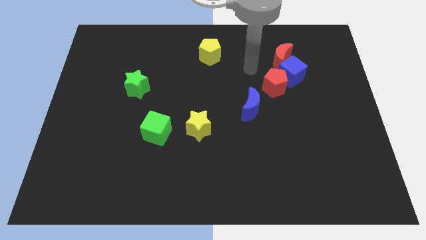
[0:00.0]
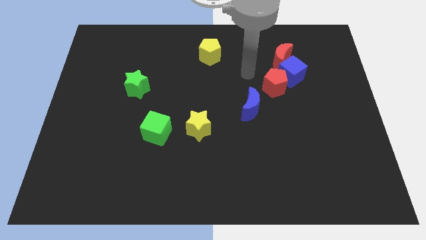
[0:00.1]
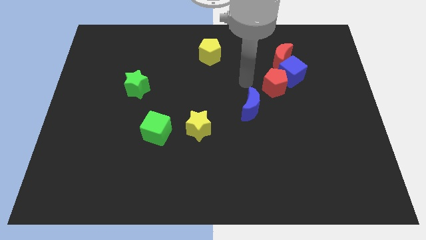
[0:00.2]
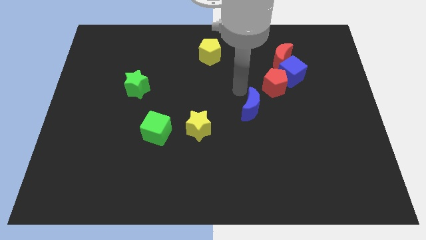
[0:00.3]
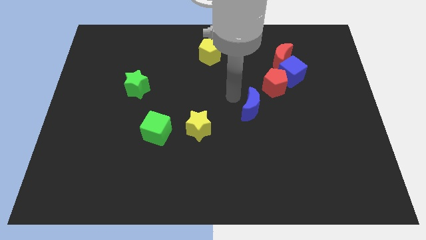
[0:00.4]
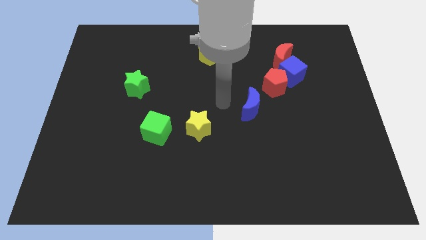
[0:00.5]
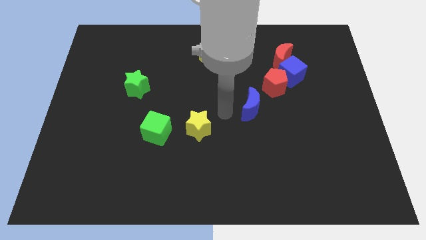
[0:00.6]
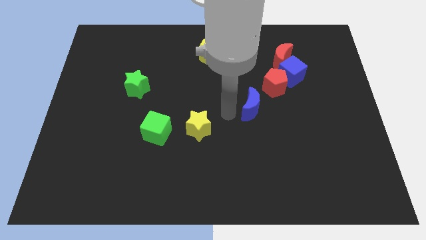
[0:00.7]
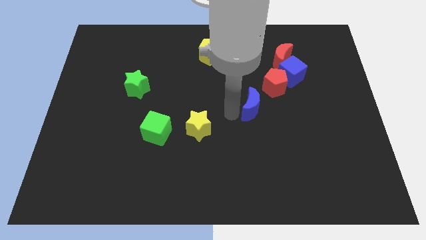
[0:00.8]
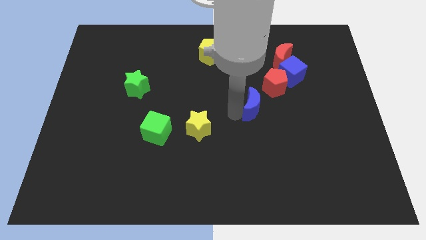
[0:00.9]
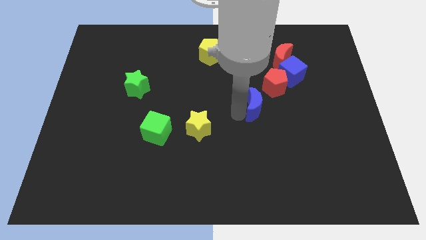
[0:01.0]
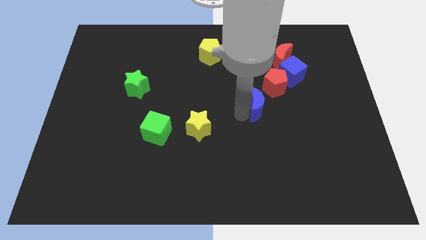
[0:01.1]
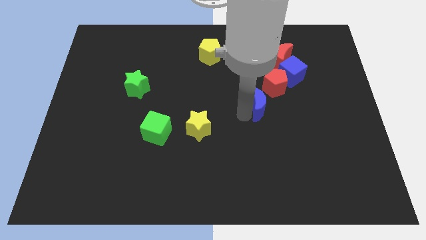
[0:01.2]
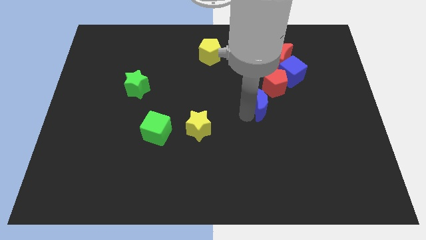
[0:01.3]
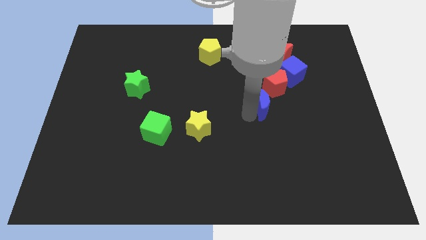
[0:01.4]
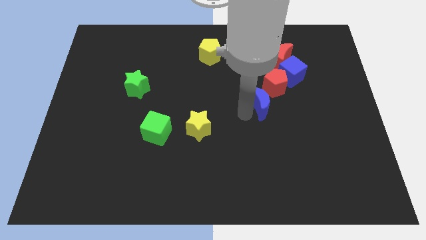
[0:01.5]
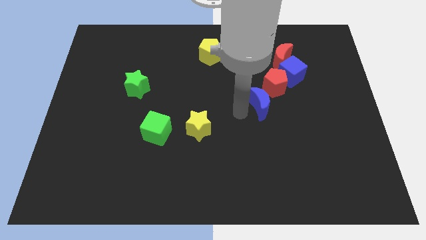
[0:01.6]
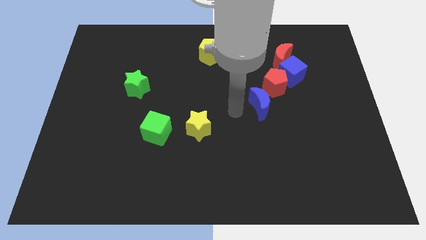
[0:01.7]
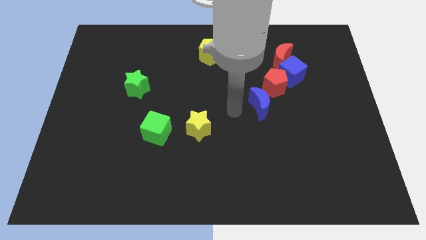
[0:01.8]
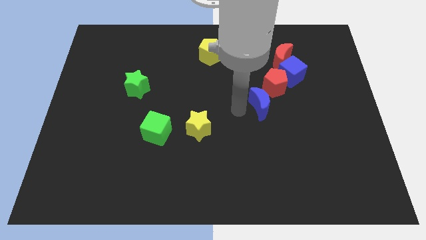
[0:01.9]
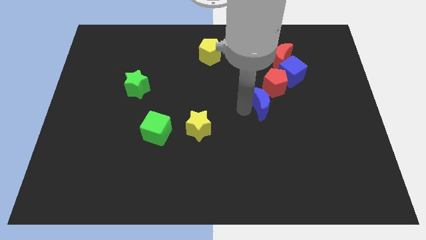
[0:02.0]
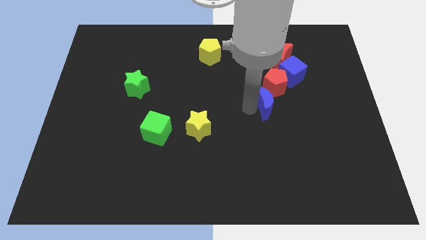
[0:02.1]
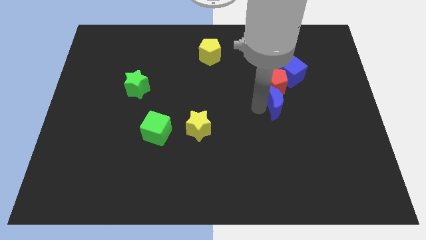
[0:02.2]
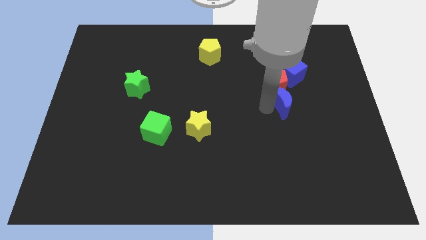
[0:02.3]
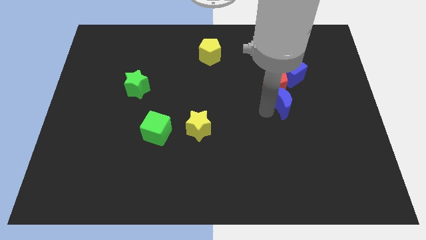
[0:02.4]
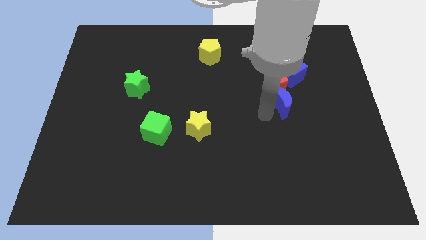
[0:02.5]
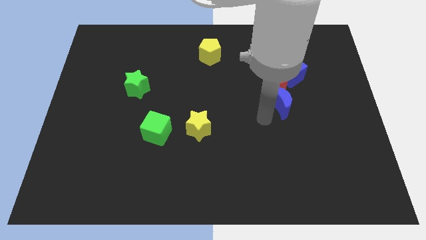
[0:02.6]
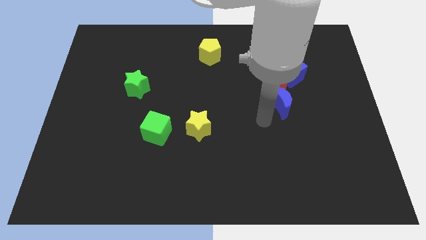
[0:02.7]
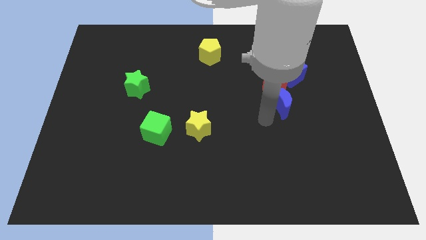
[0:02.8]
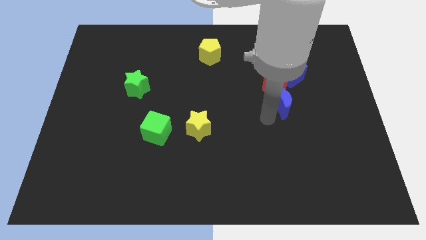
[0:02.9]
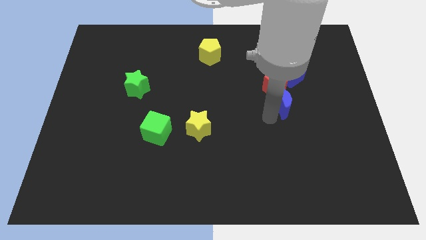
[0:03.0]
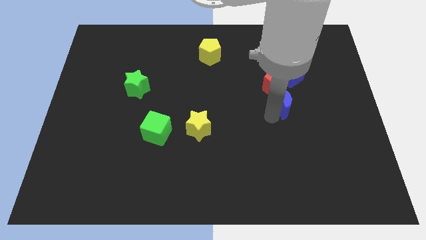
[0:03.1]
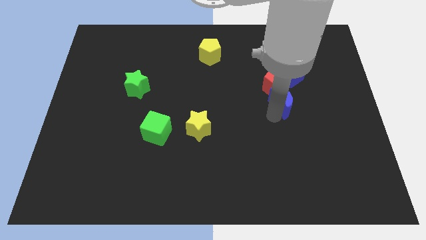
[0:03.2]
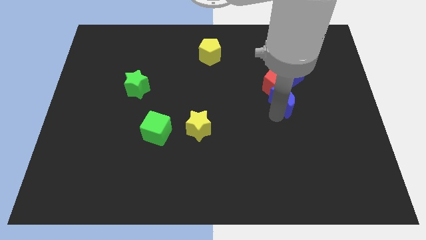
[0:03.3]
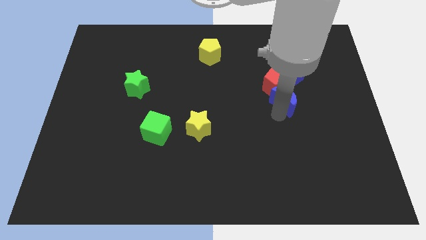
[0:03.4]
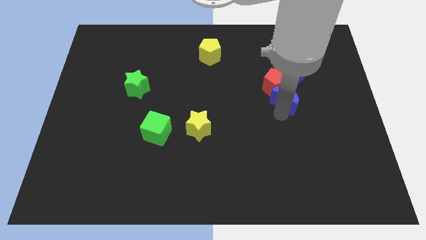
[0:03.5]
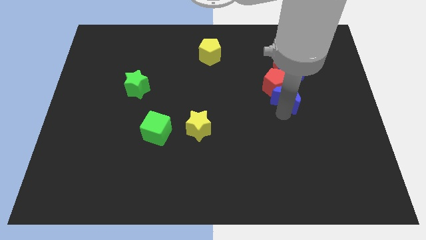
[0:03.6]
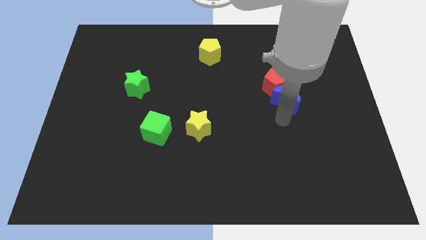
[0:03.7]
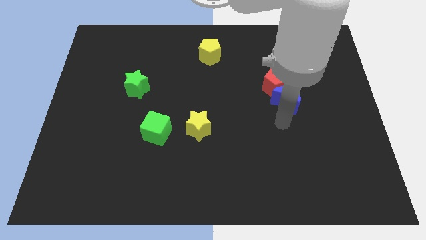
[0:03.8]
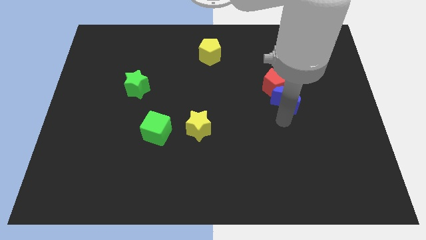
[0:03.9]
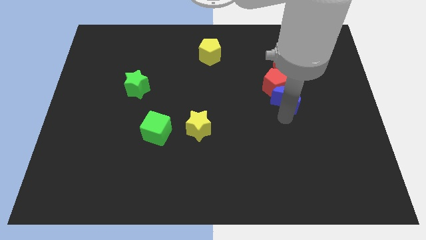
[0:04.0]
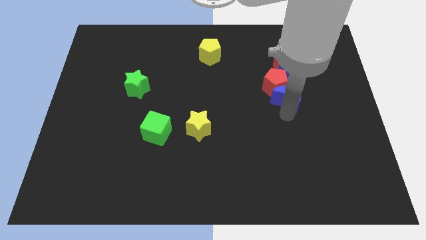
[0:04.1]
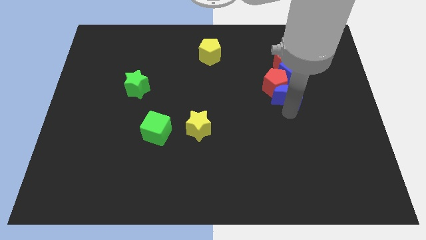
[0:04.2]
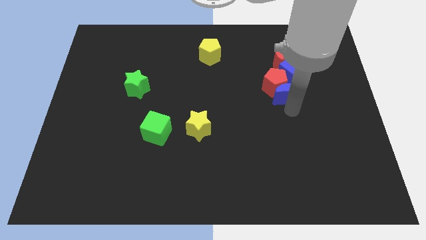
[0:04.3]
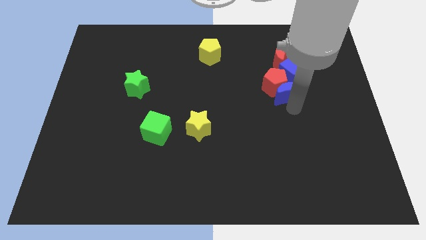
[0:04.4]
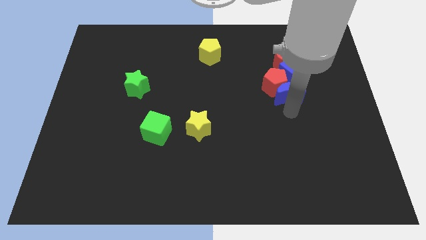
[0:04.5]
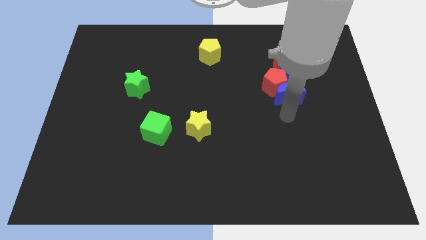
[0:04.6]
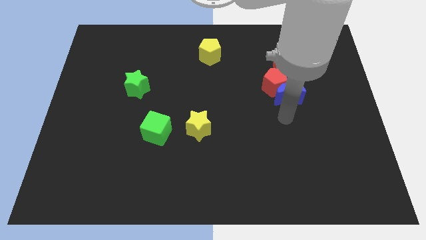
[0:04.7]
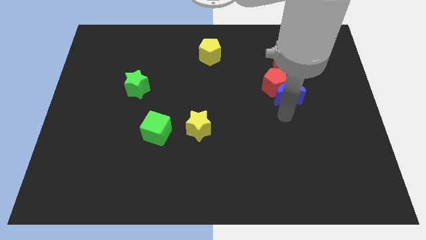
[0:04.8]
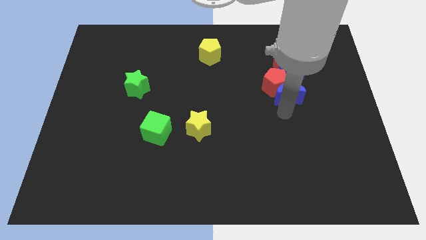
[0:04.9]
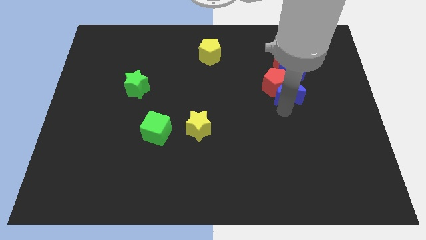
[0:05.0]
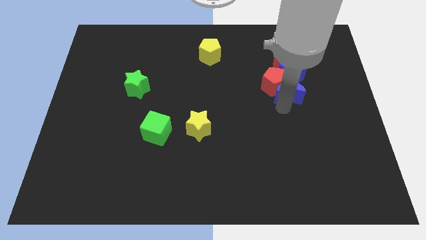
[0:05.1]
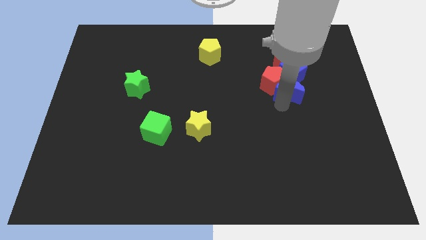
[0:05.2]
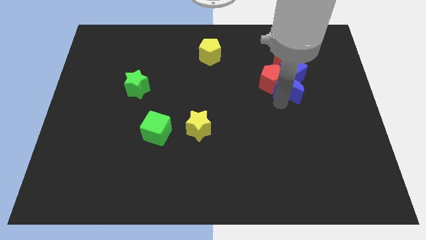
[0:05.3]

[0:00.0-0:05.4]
push the blue moon towards the blue cube

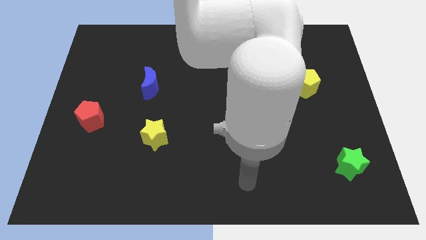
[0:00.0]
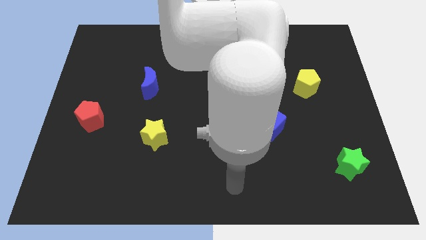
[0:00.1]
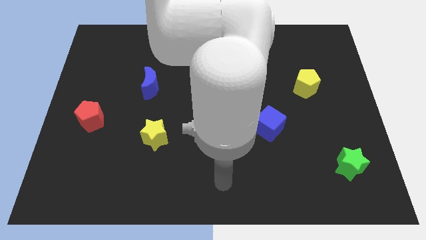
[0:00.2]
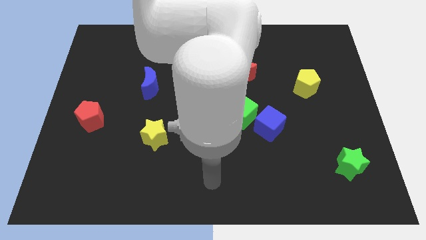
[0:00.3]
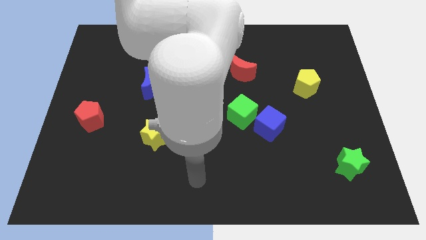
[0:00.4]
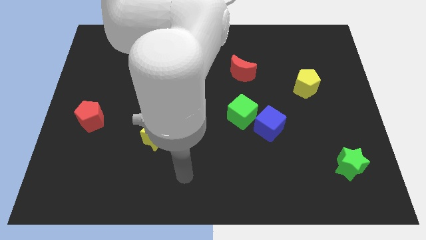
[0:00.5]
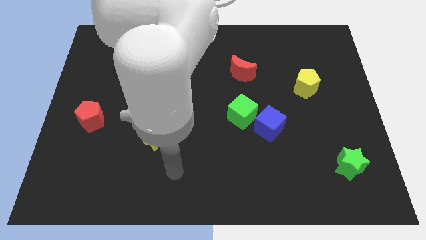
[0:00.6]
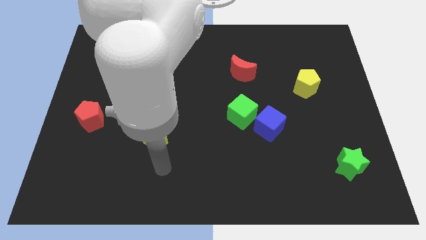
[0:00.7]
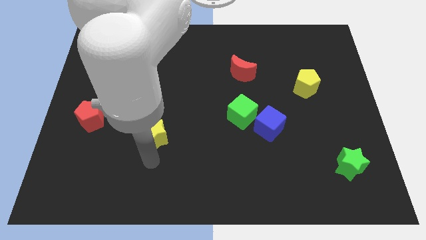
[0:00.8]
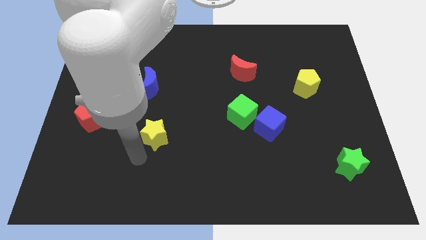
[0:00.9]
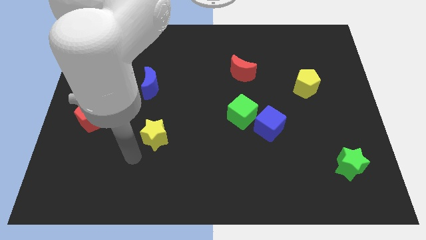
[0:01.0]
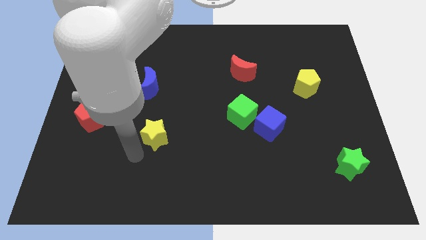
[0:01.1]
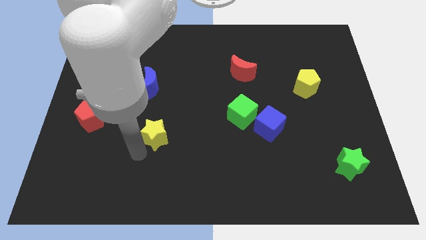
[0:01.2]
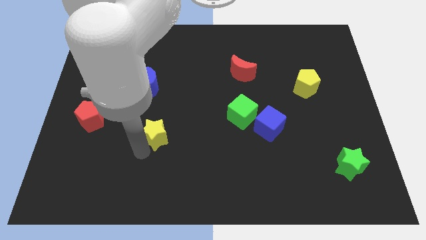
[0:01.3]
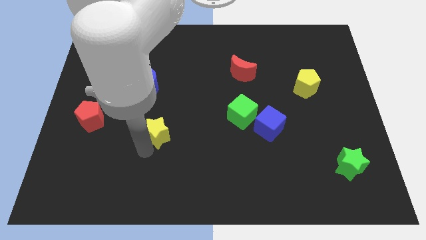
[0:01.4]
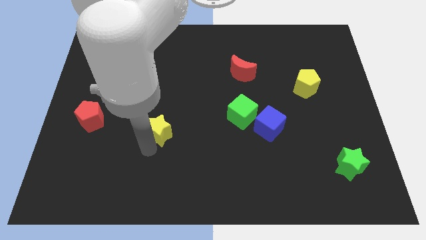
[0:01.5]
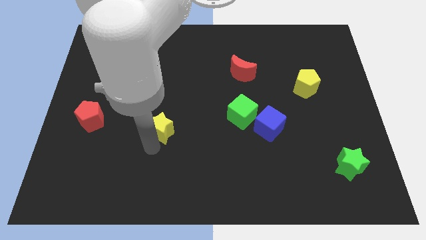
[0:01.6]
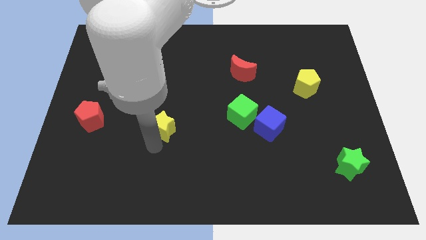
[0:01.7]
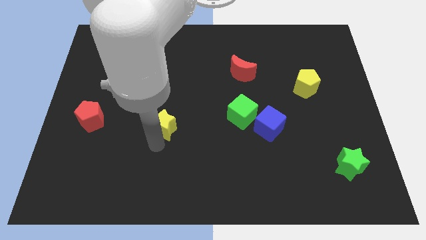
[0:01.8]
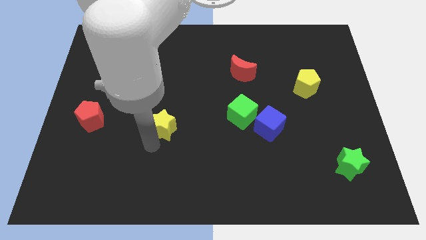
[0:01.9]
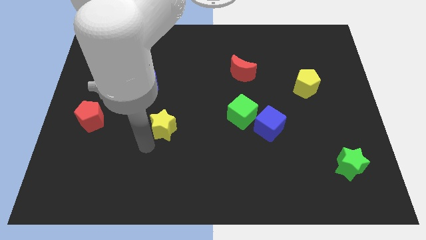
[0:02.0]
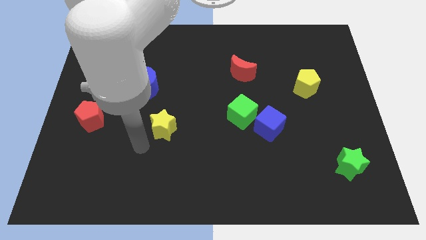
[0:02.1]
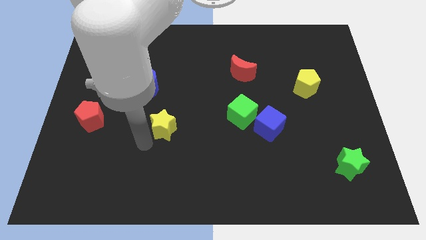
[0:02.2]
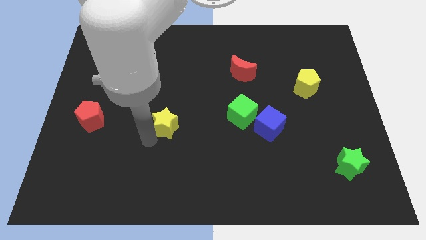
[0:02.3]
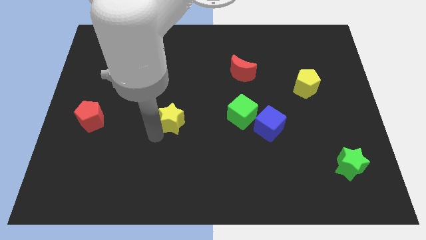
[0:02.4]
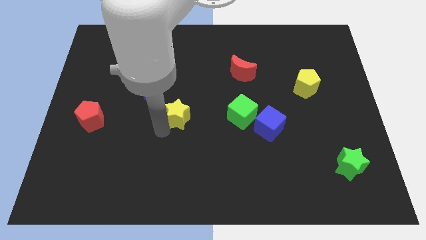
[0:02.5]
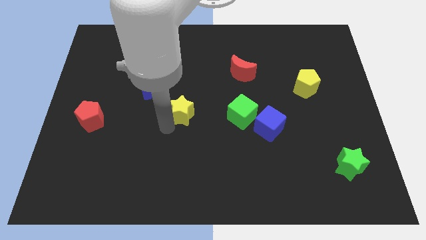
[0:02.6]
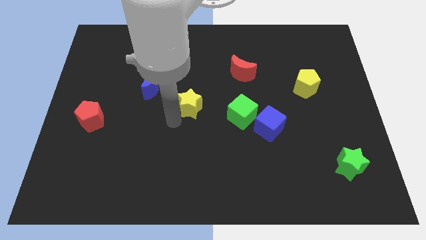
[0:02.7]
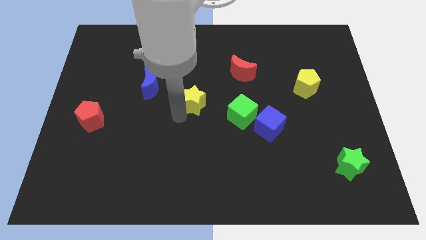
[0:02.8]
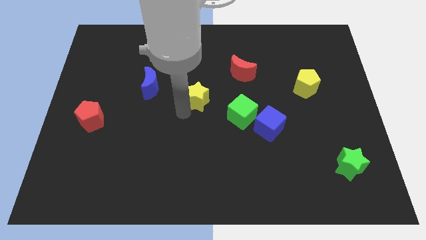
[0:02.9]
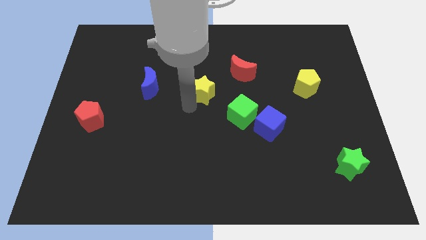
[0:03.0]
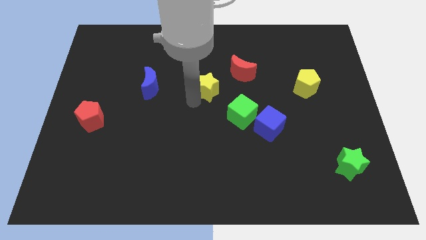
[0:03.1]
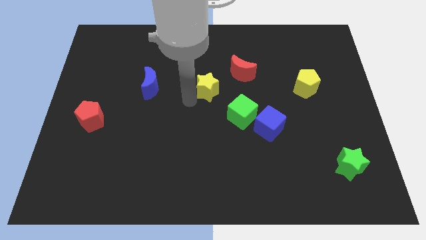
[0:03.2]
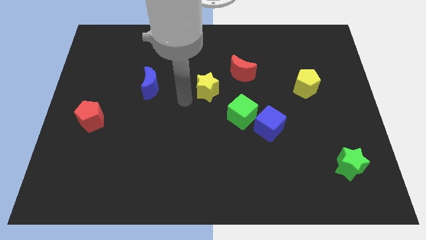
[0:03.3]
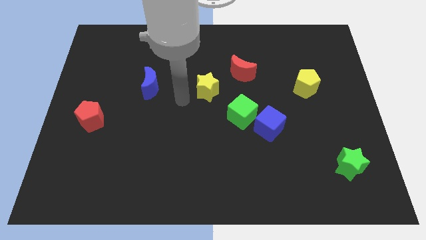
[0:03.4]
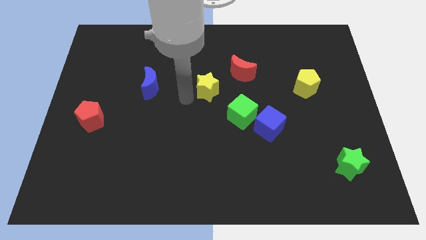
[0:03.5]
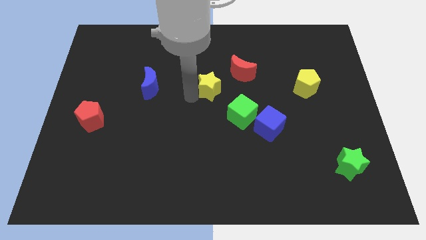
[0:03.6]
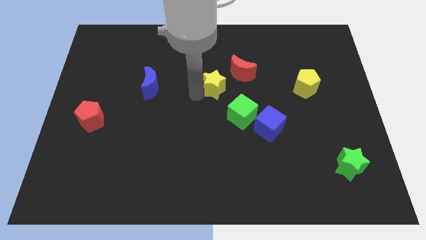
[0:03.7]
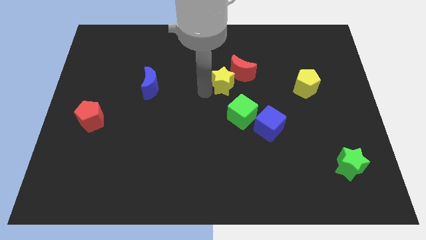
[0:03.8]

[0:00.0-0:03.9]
move the yellow star to the red moon
